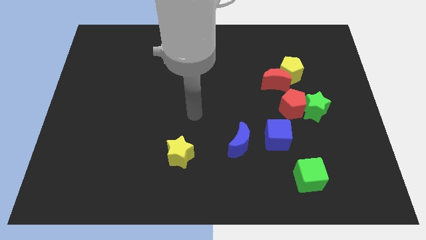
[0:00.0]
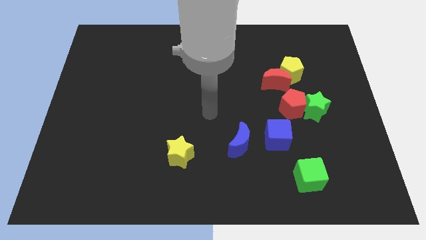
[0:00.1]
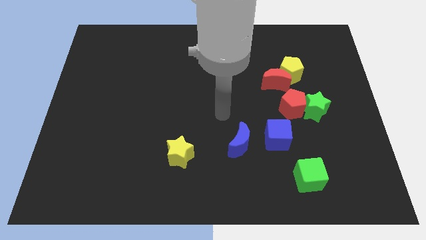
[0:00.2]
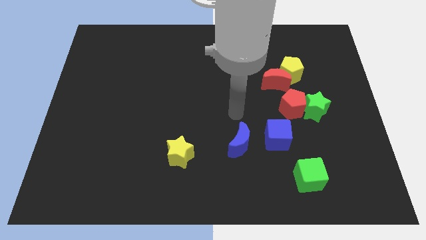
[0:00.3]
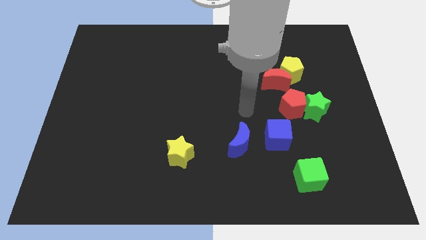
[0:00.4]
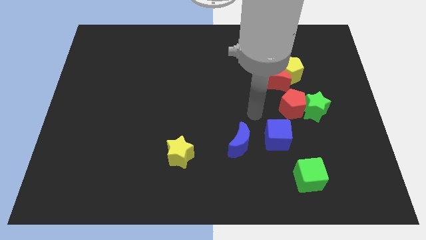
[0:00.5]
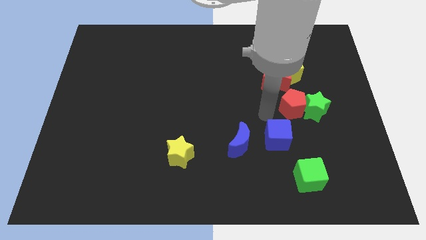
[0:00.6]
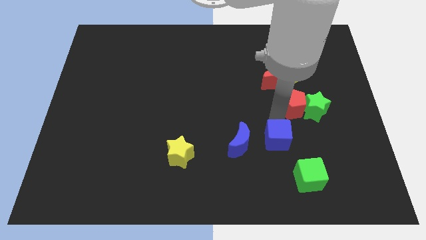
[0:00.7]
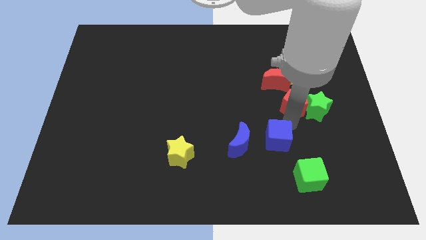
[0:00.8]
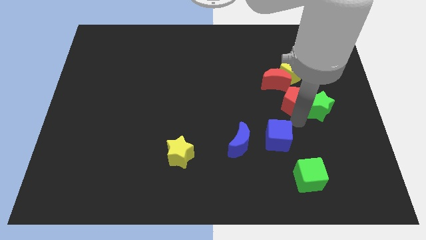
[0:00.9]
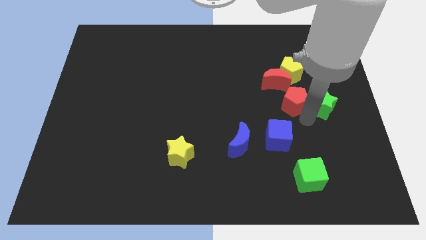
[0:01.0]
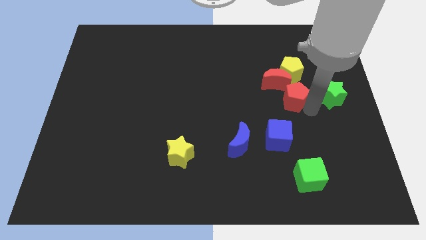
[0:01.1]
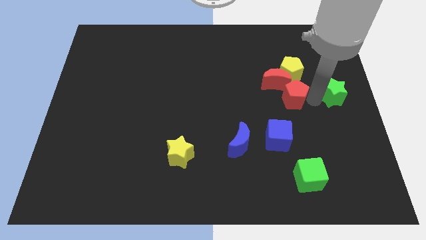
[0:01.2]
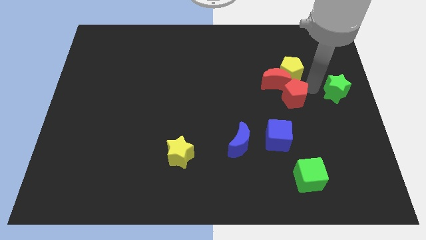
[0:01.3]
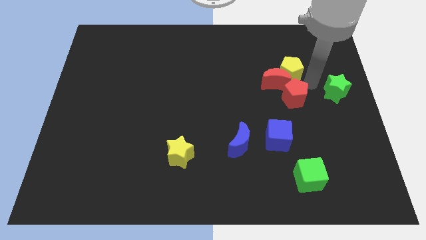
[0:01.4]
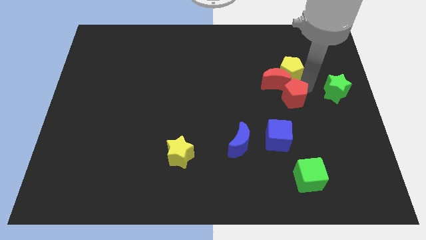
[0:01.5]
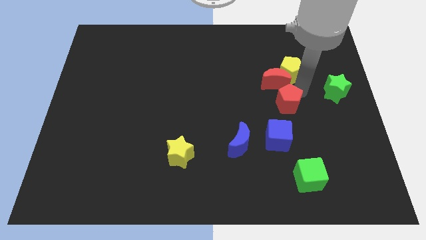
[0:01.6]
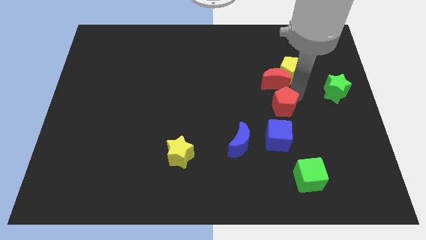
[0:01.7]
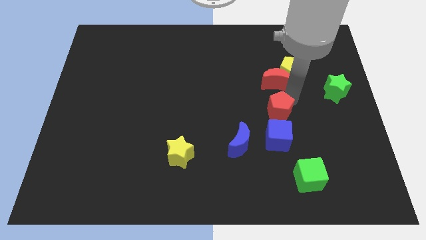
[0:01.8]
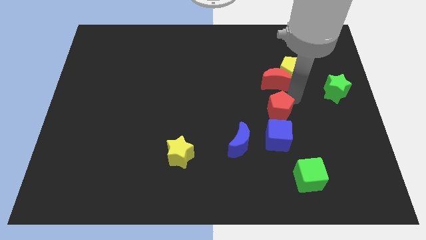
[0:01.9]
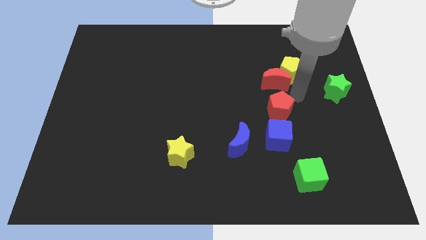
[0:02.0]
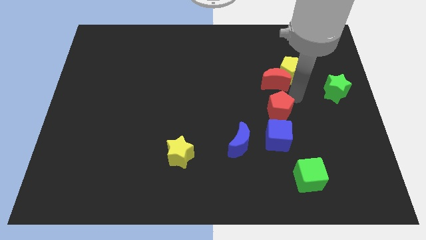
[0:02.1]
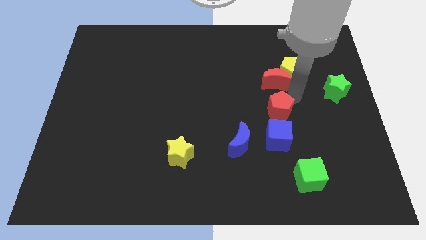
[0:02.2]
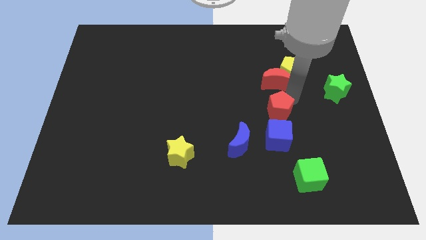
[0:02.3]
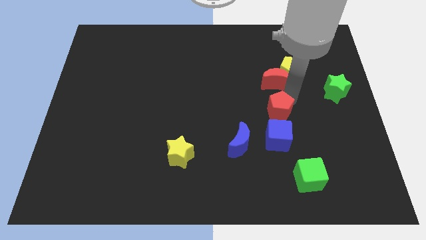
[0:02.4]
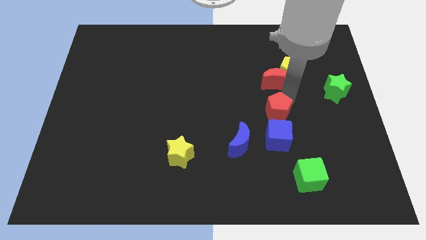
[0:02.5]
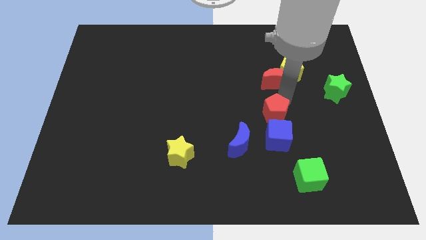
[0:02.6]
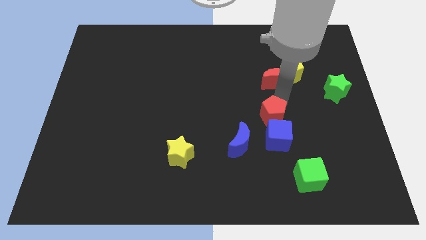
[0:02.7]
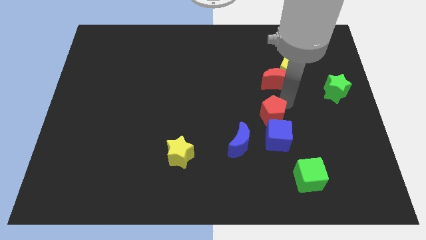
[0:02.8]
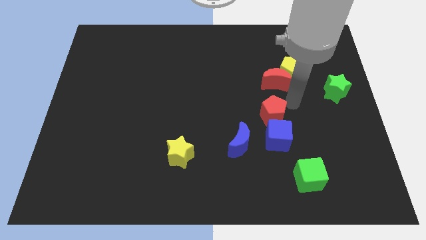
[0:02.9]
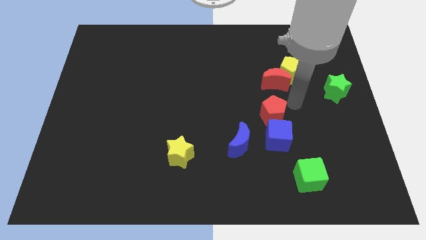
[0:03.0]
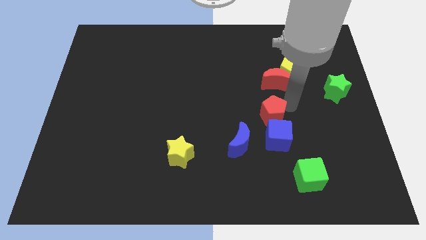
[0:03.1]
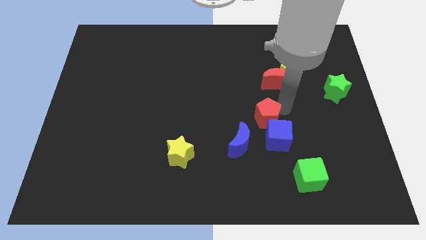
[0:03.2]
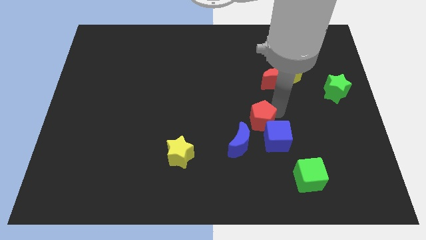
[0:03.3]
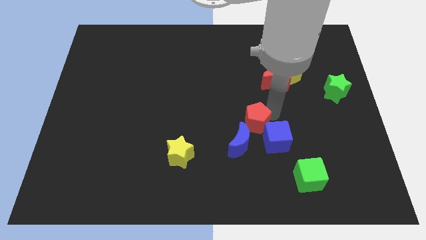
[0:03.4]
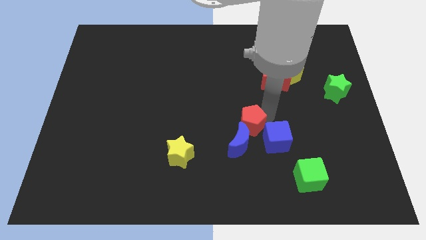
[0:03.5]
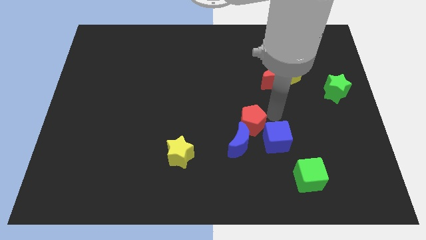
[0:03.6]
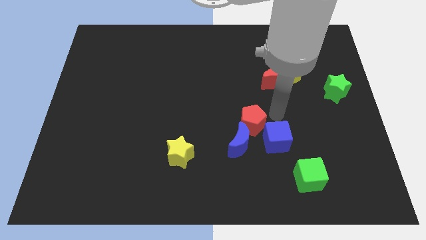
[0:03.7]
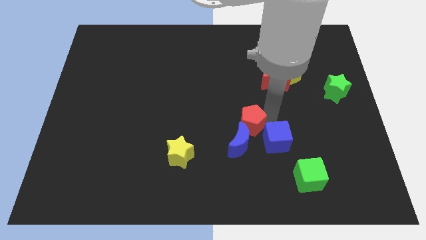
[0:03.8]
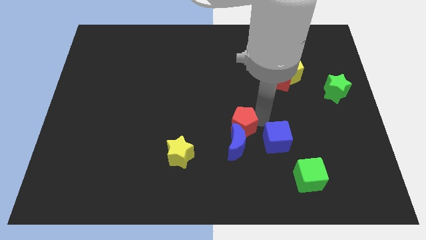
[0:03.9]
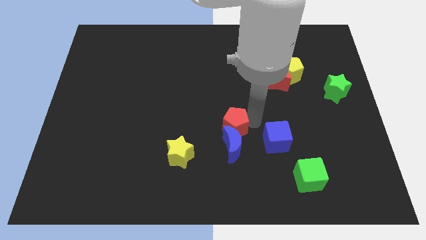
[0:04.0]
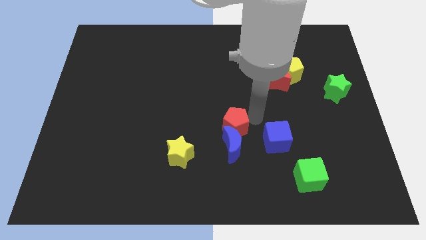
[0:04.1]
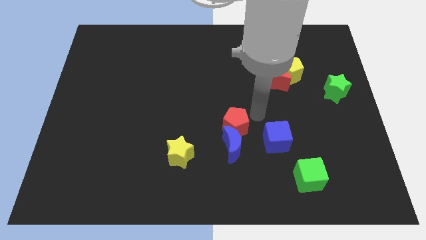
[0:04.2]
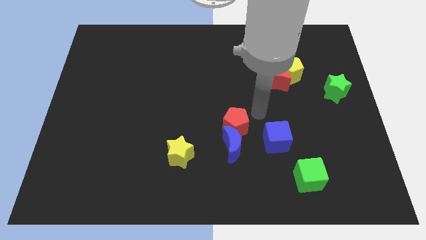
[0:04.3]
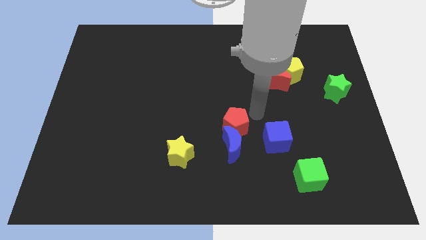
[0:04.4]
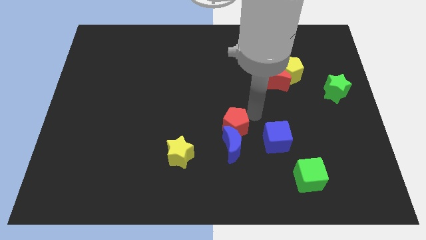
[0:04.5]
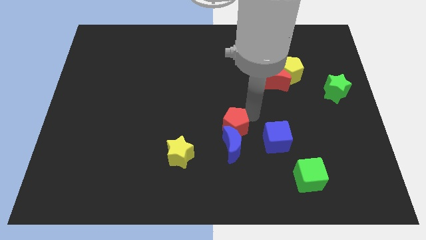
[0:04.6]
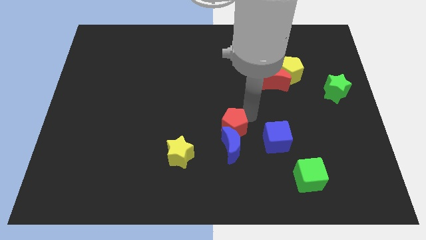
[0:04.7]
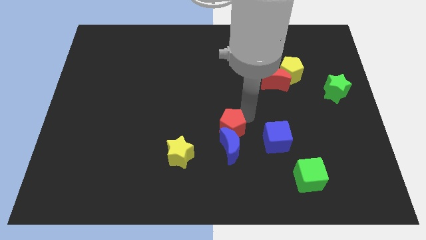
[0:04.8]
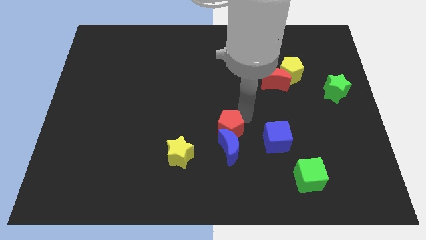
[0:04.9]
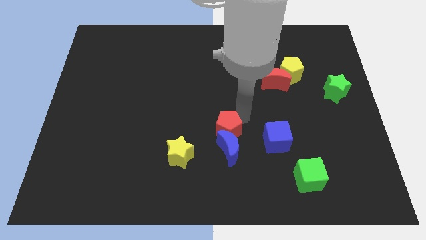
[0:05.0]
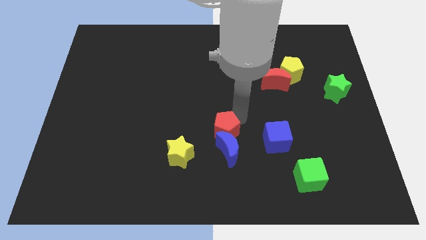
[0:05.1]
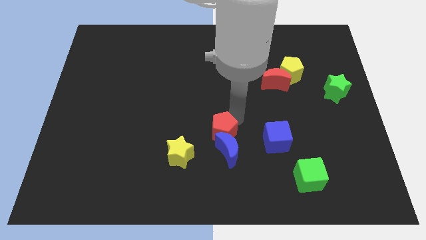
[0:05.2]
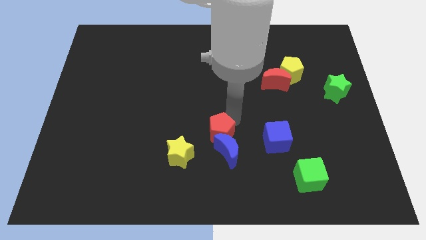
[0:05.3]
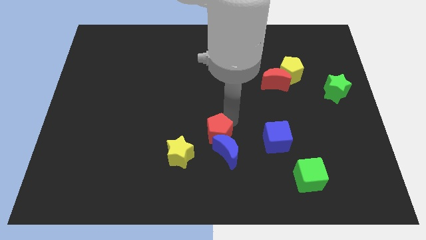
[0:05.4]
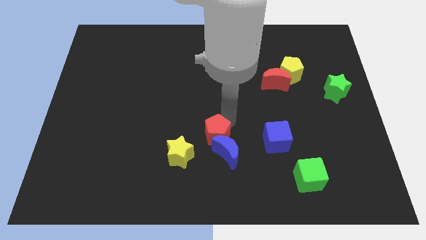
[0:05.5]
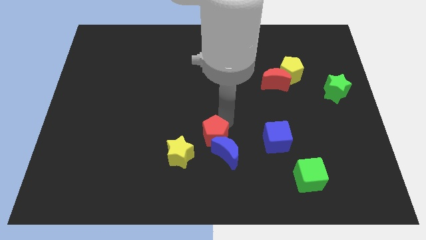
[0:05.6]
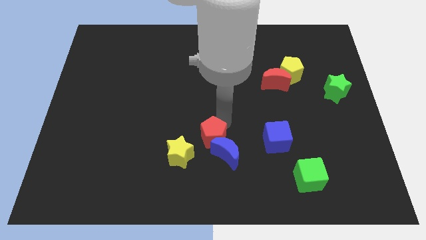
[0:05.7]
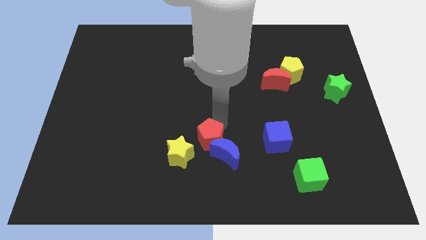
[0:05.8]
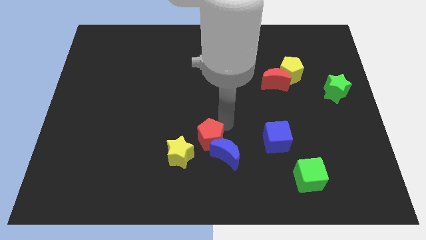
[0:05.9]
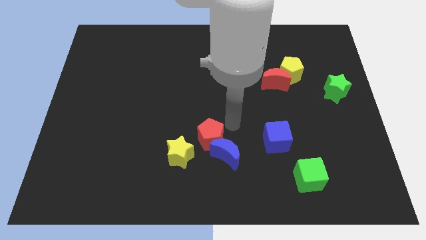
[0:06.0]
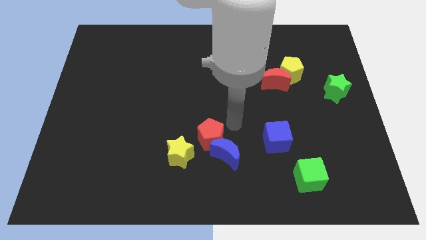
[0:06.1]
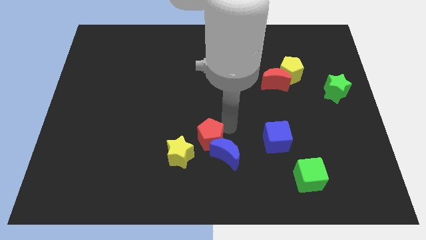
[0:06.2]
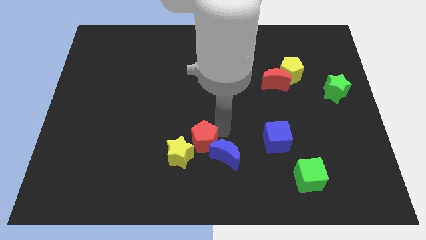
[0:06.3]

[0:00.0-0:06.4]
slide the red pentagon towards the yellow star
